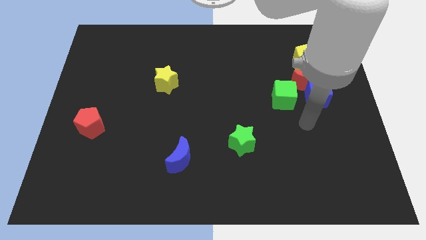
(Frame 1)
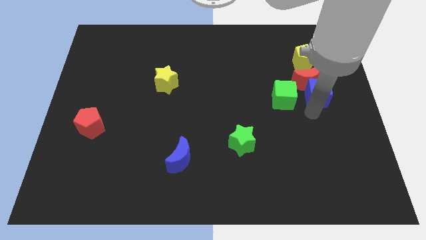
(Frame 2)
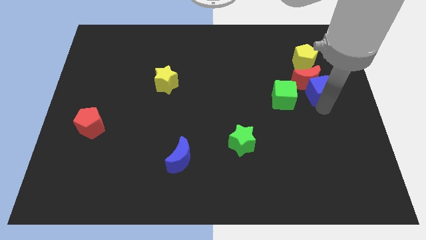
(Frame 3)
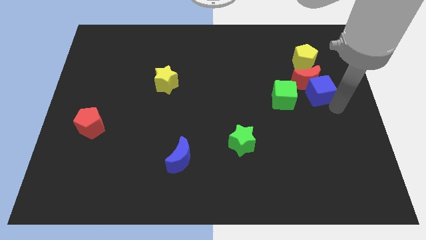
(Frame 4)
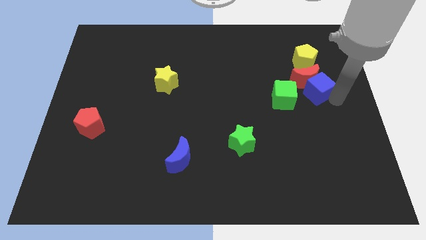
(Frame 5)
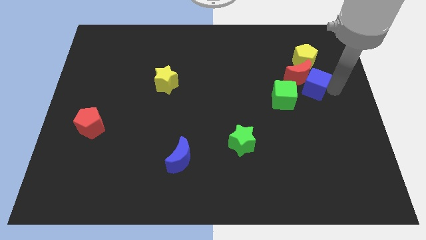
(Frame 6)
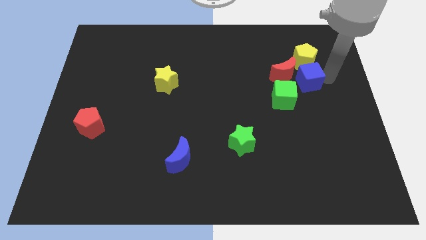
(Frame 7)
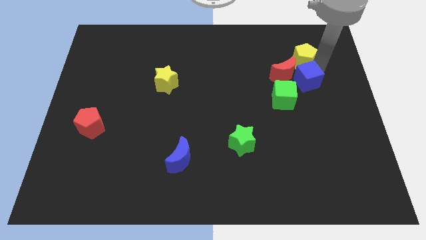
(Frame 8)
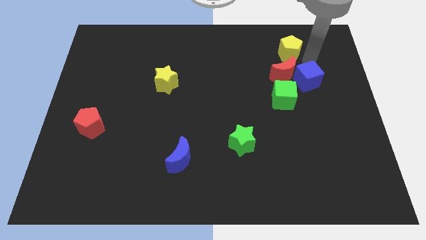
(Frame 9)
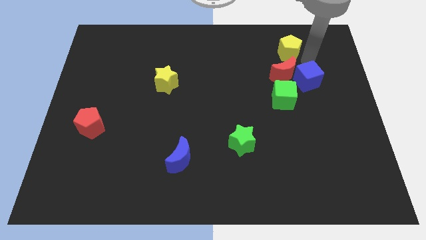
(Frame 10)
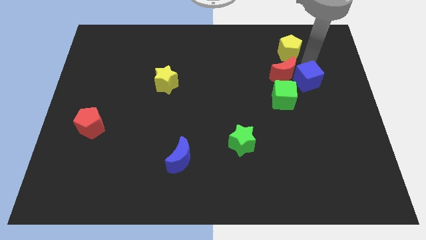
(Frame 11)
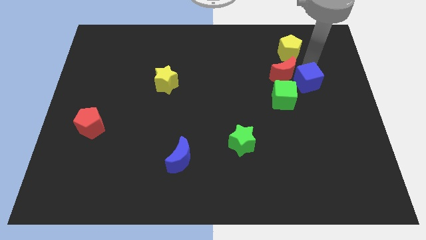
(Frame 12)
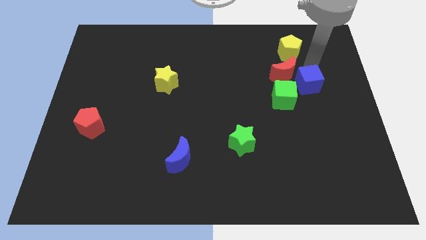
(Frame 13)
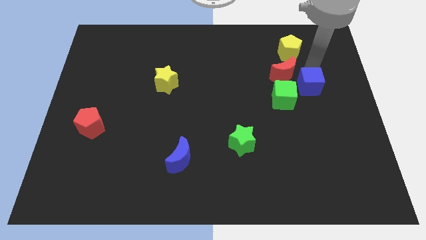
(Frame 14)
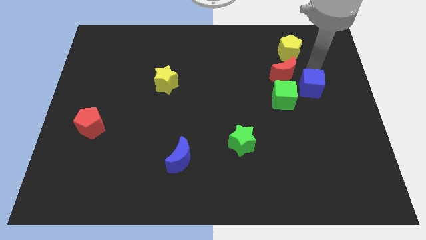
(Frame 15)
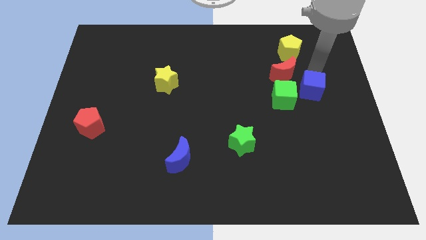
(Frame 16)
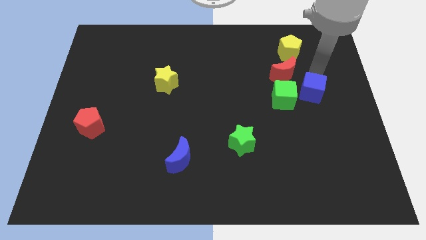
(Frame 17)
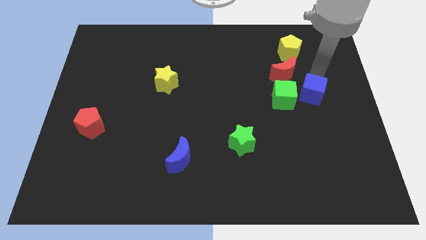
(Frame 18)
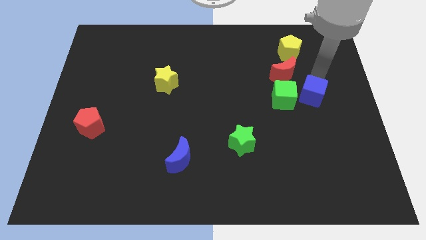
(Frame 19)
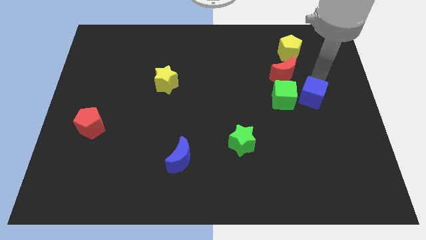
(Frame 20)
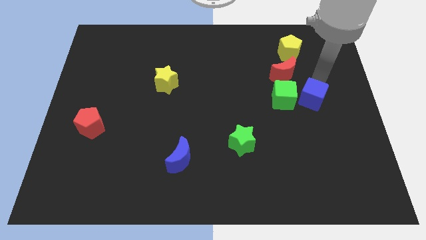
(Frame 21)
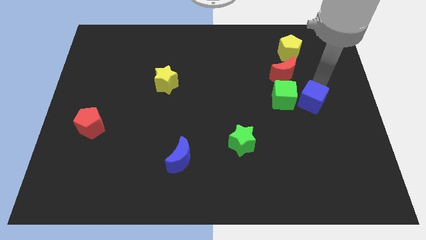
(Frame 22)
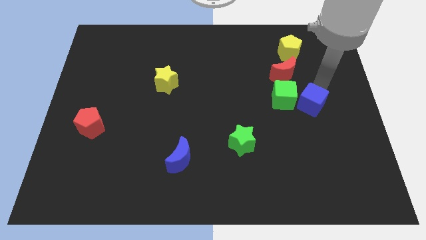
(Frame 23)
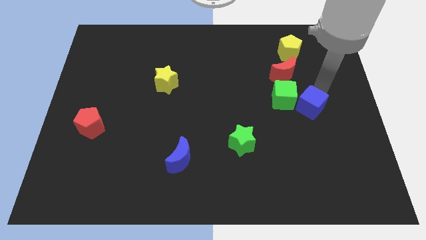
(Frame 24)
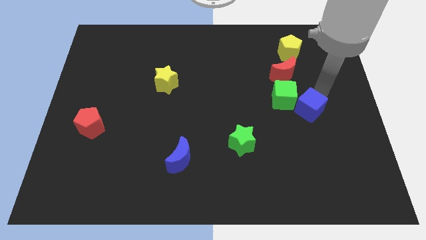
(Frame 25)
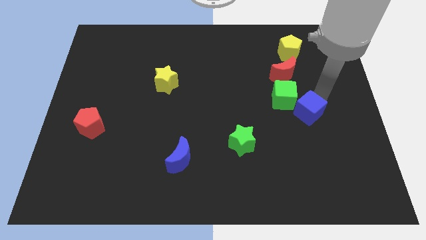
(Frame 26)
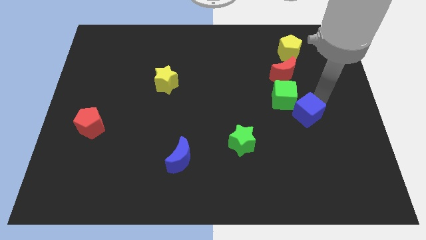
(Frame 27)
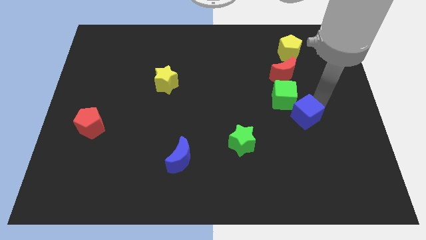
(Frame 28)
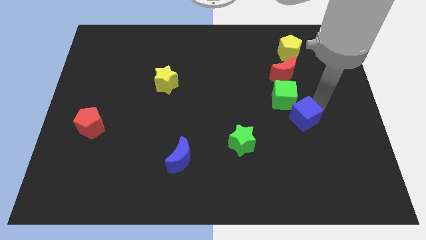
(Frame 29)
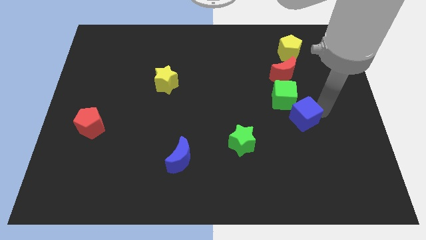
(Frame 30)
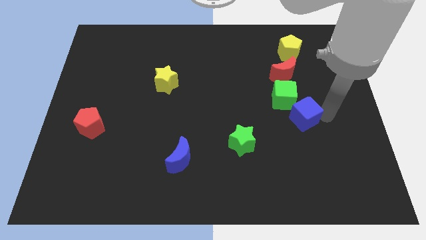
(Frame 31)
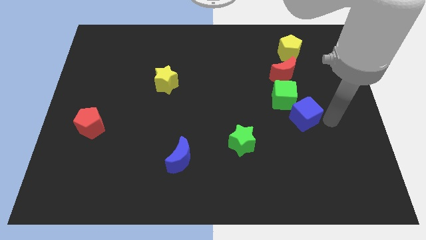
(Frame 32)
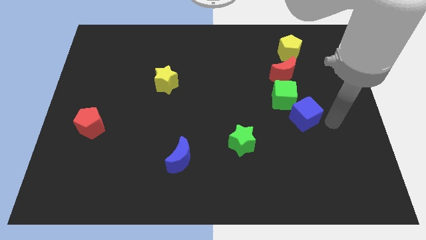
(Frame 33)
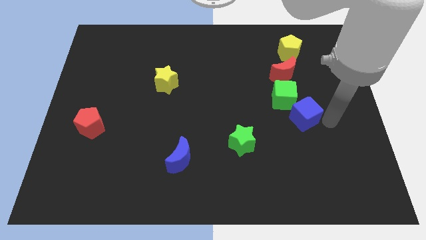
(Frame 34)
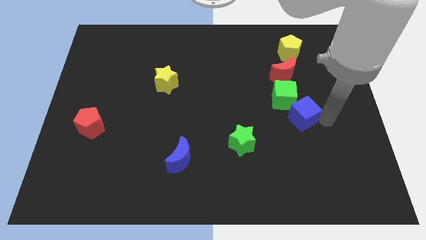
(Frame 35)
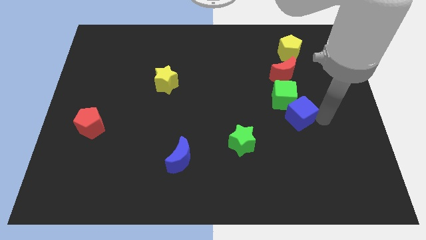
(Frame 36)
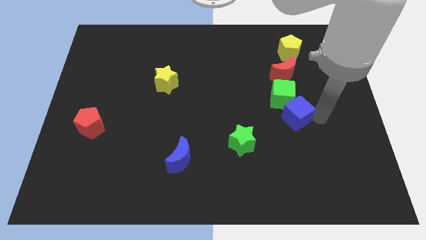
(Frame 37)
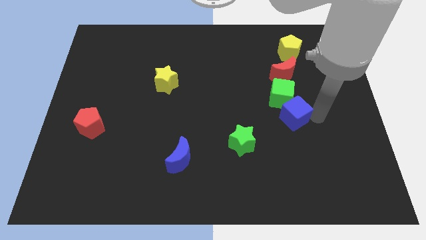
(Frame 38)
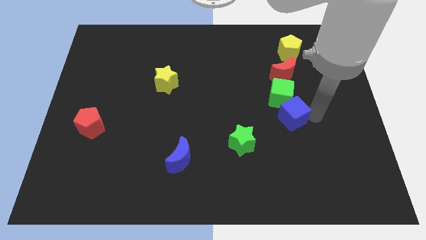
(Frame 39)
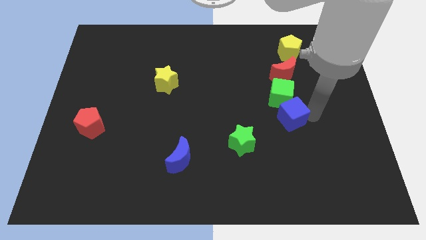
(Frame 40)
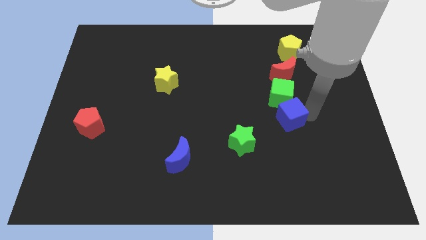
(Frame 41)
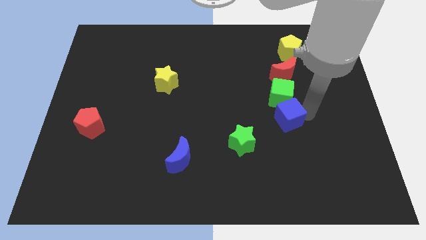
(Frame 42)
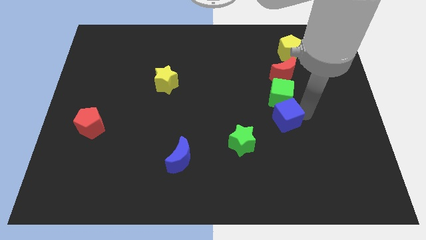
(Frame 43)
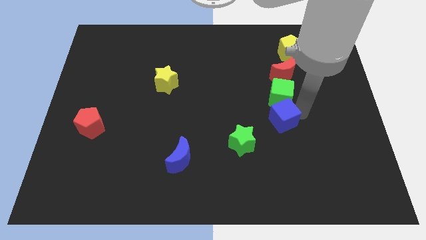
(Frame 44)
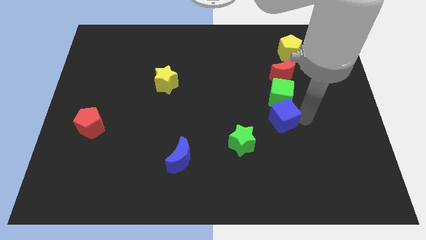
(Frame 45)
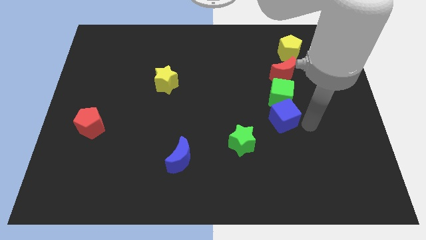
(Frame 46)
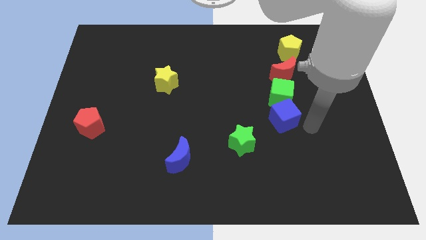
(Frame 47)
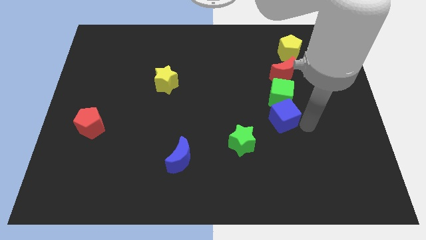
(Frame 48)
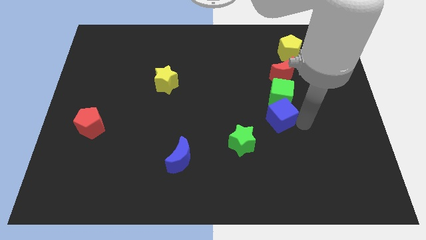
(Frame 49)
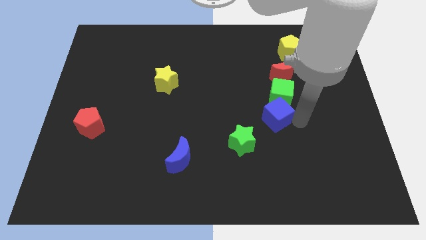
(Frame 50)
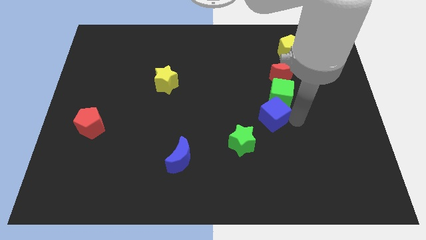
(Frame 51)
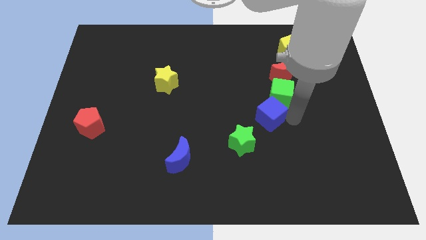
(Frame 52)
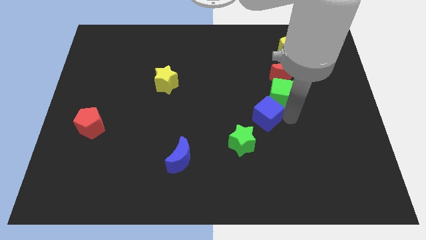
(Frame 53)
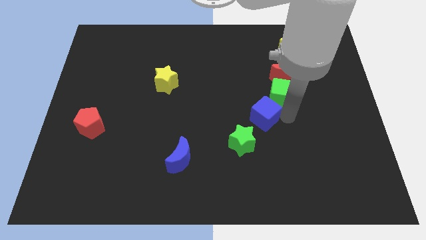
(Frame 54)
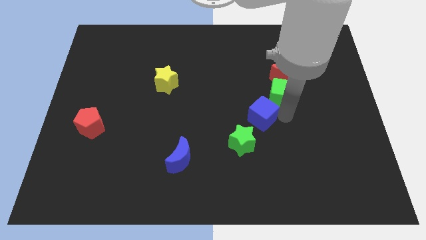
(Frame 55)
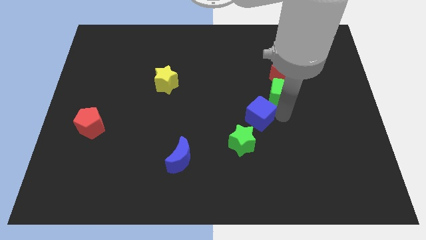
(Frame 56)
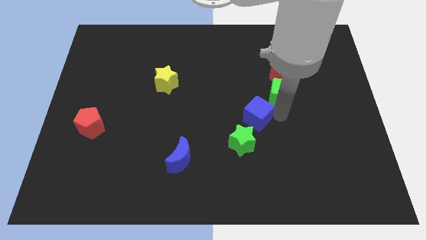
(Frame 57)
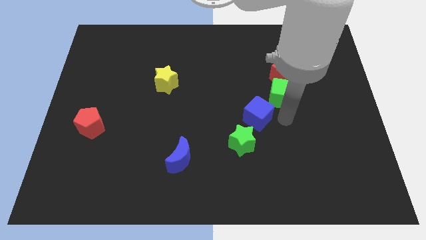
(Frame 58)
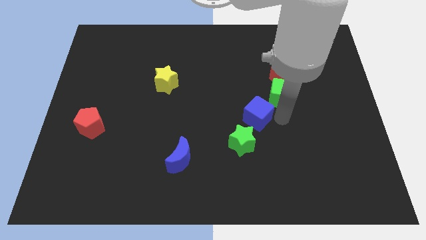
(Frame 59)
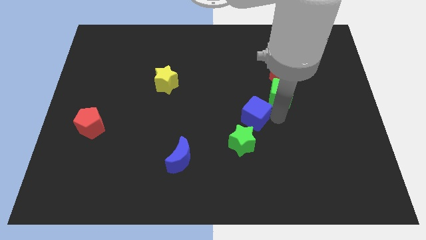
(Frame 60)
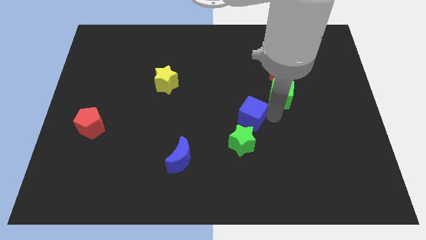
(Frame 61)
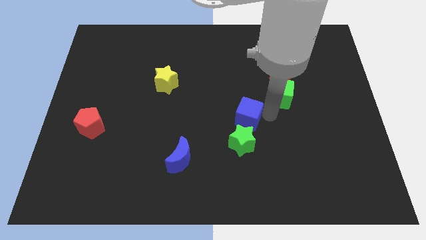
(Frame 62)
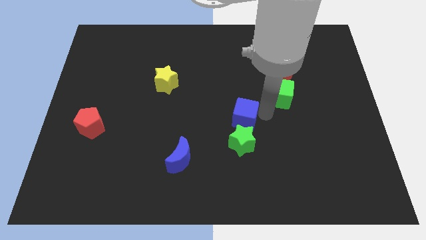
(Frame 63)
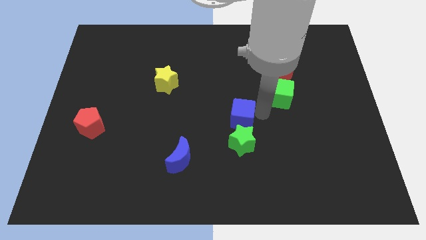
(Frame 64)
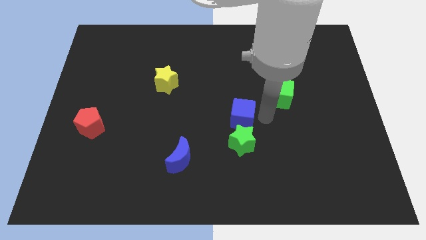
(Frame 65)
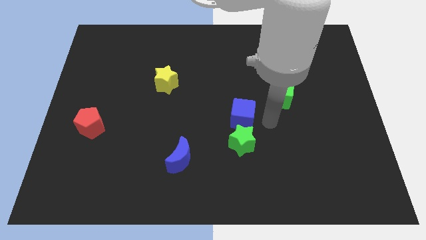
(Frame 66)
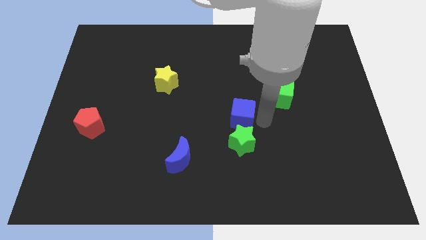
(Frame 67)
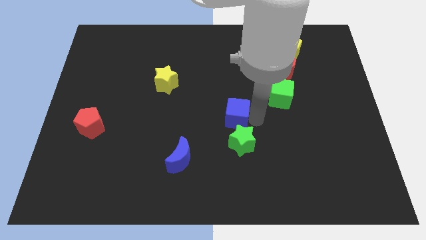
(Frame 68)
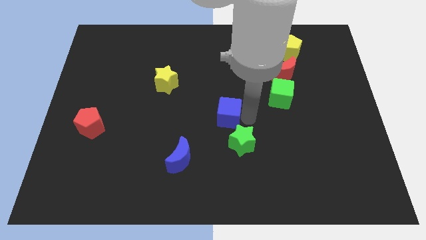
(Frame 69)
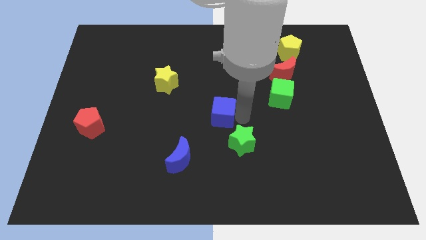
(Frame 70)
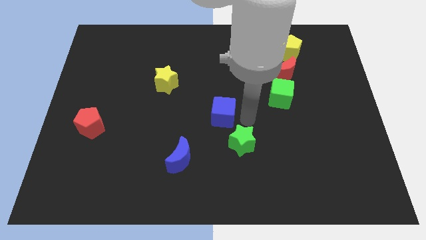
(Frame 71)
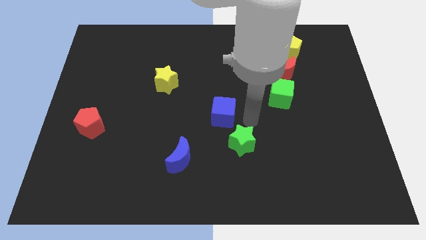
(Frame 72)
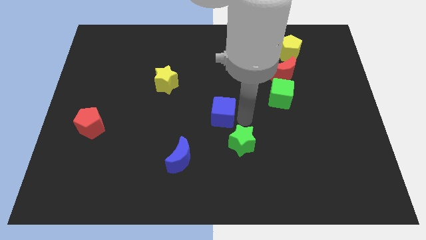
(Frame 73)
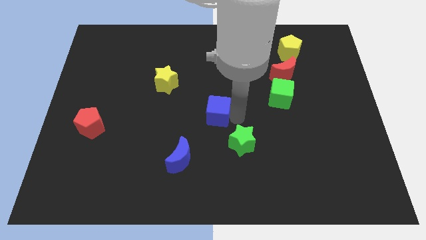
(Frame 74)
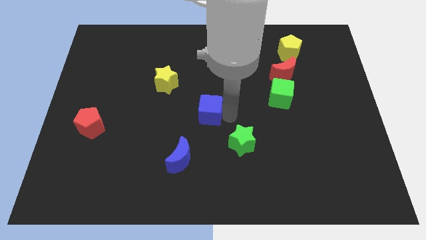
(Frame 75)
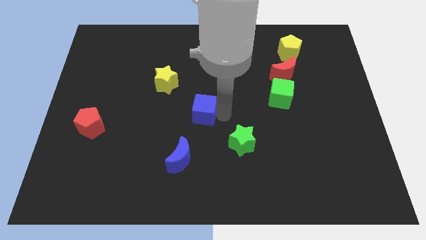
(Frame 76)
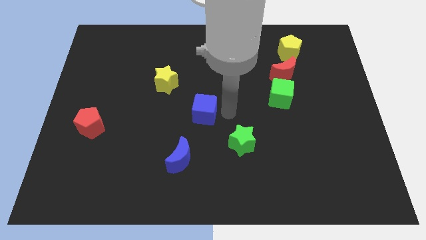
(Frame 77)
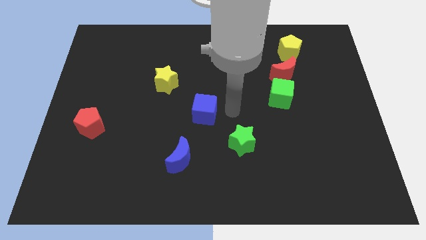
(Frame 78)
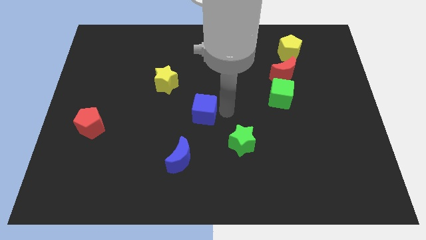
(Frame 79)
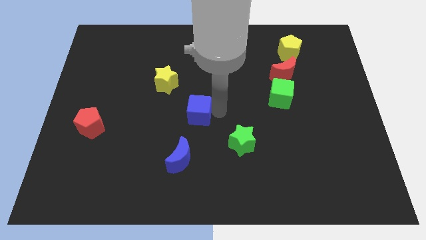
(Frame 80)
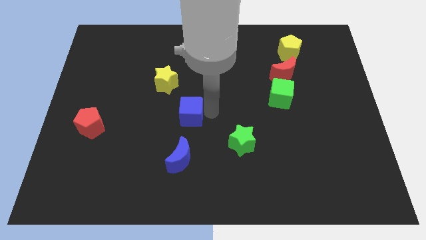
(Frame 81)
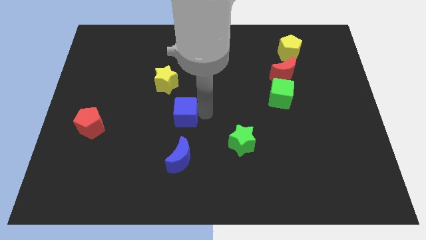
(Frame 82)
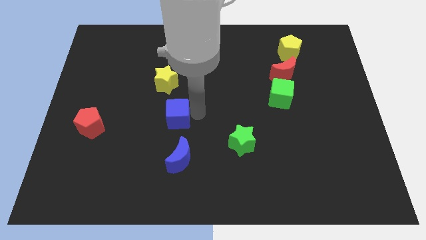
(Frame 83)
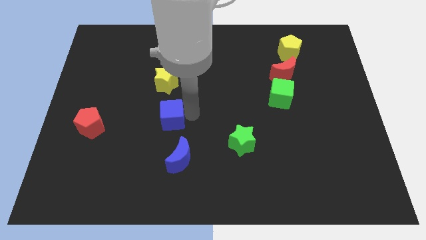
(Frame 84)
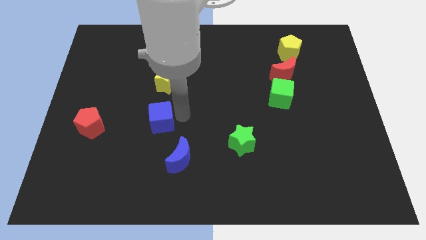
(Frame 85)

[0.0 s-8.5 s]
slide the blue cube to the right of the red pentagon
